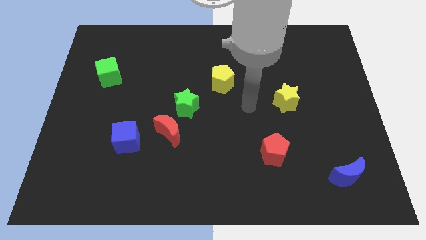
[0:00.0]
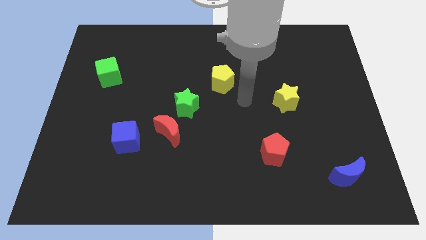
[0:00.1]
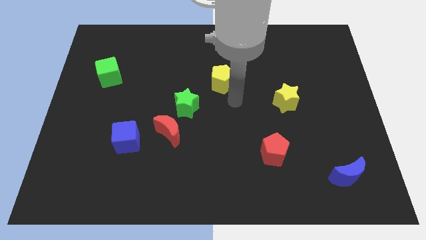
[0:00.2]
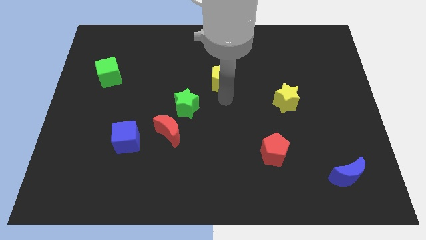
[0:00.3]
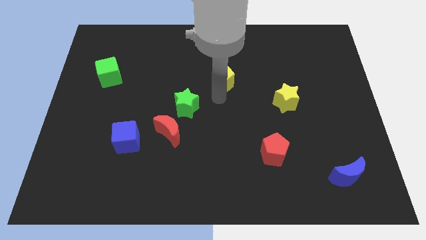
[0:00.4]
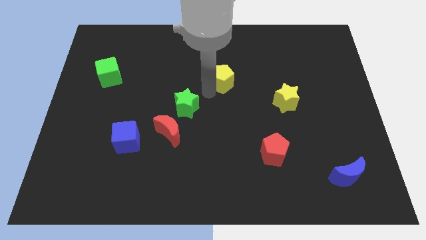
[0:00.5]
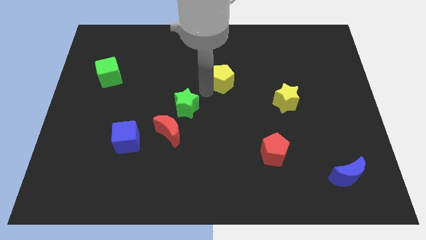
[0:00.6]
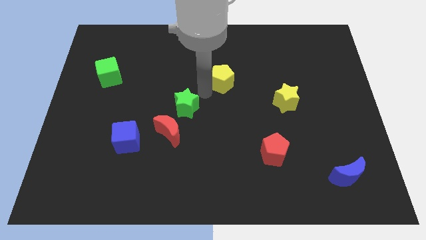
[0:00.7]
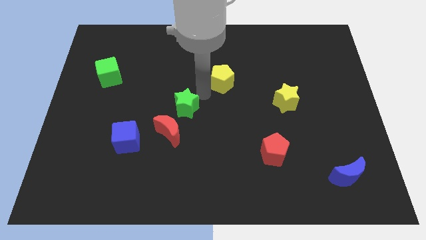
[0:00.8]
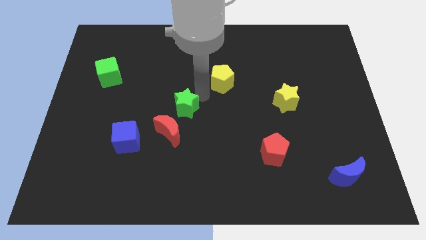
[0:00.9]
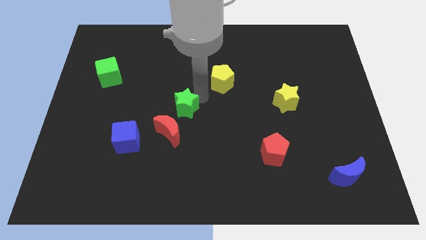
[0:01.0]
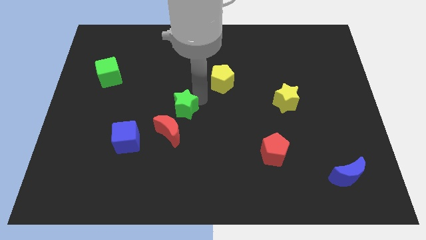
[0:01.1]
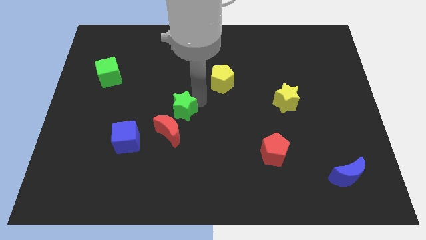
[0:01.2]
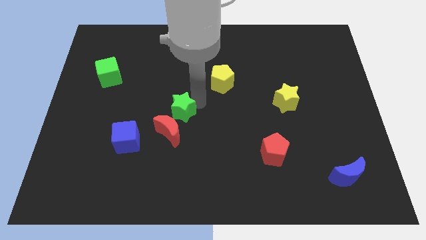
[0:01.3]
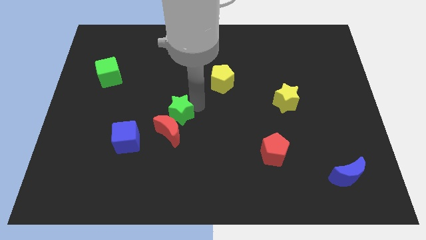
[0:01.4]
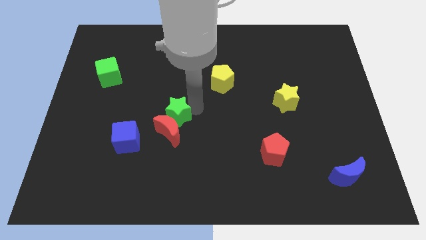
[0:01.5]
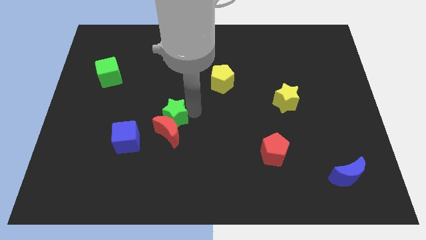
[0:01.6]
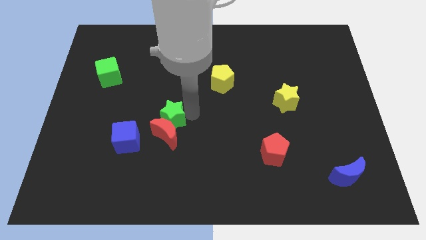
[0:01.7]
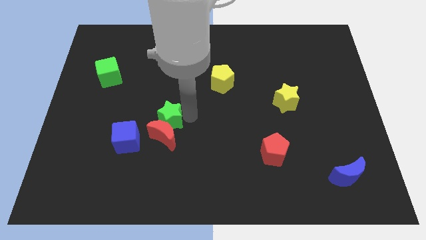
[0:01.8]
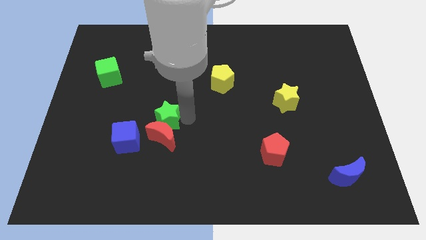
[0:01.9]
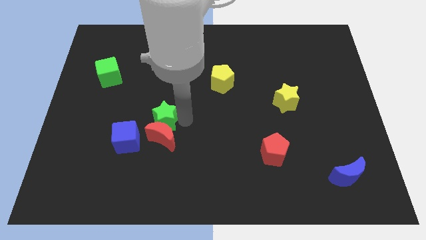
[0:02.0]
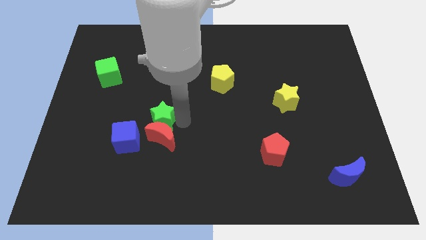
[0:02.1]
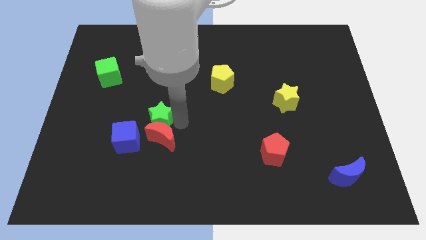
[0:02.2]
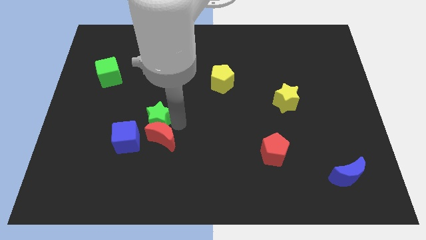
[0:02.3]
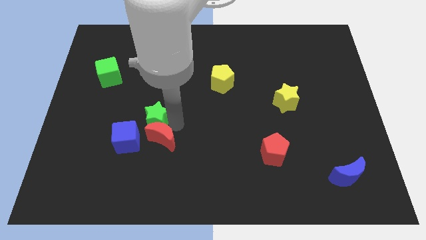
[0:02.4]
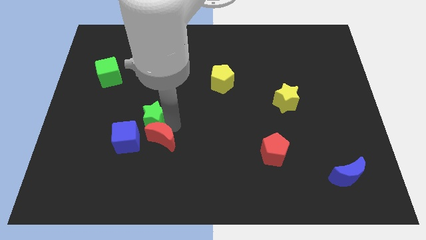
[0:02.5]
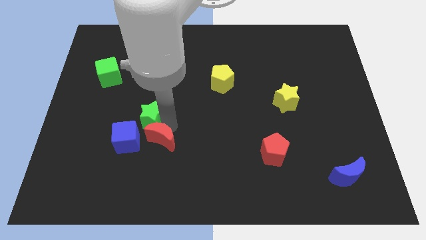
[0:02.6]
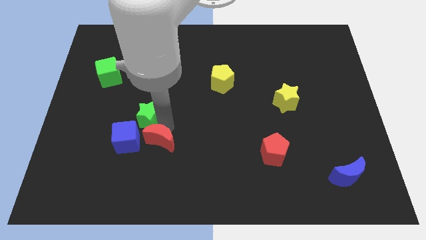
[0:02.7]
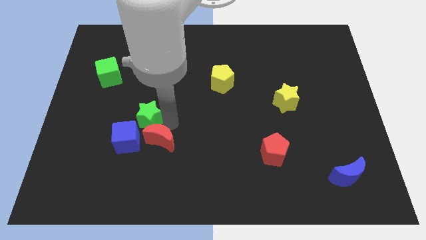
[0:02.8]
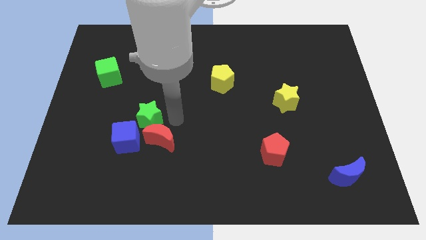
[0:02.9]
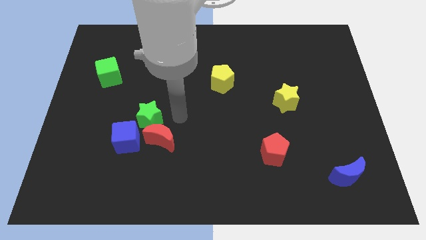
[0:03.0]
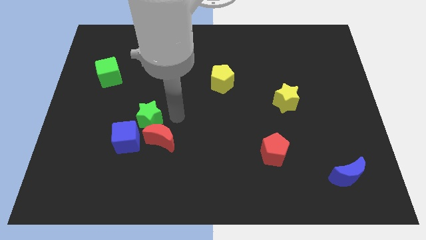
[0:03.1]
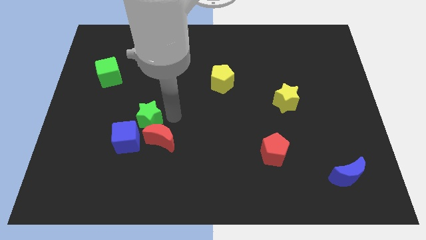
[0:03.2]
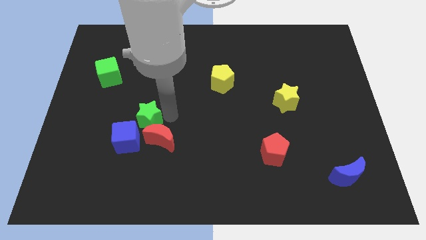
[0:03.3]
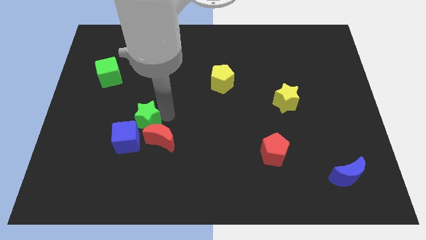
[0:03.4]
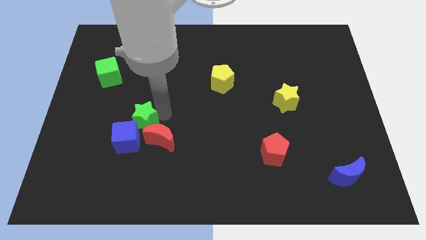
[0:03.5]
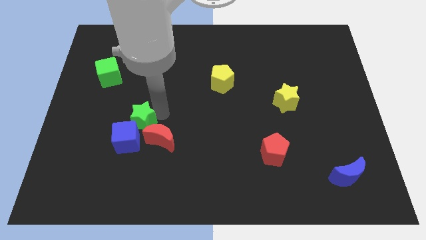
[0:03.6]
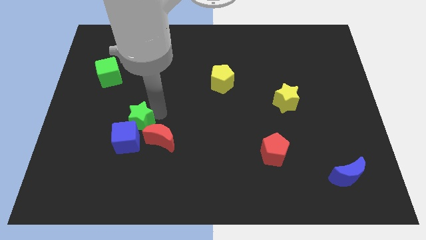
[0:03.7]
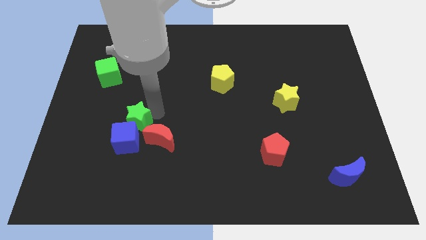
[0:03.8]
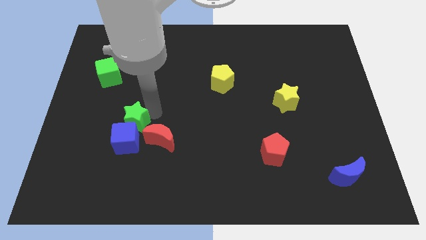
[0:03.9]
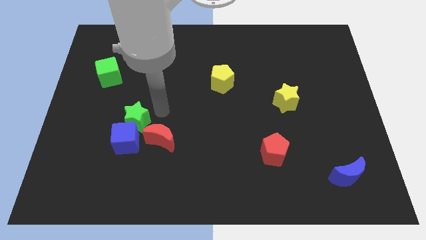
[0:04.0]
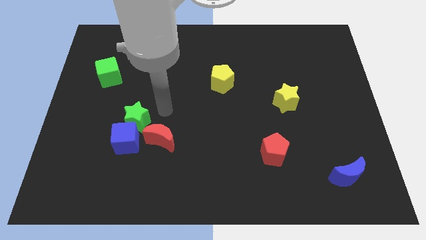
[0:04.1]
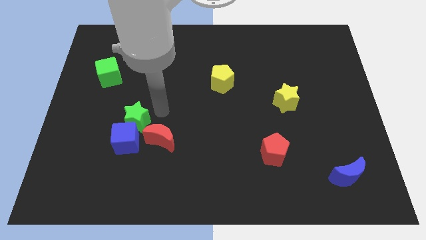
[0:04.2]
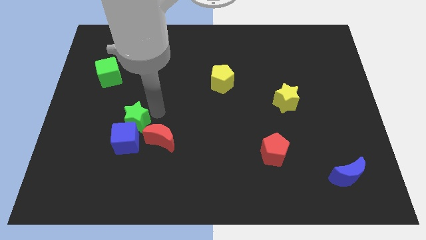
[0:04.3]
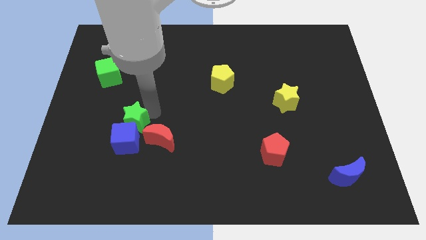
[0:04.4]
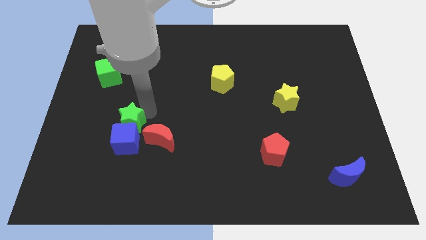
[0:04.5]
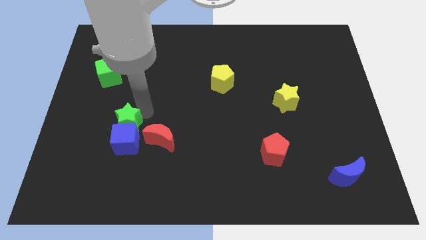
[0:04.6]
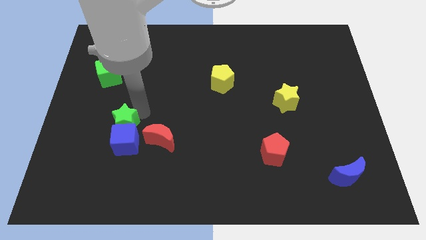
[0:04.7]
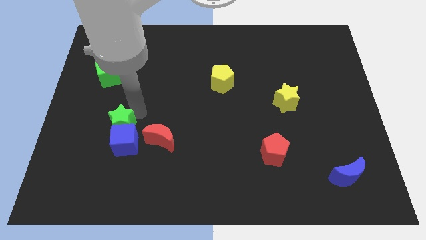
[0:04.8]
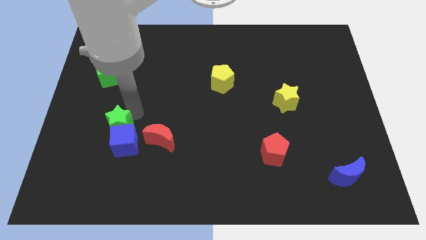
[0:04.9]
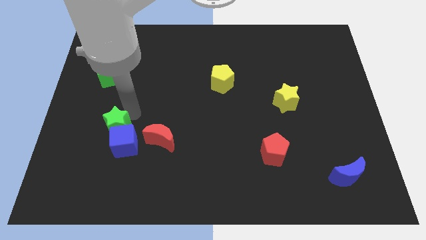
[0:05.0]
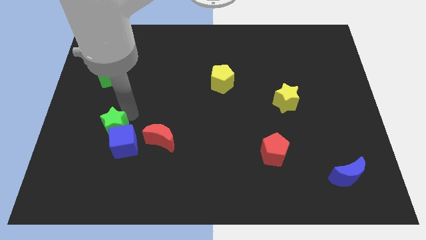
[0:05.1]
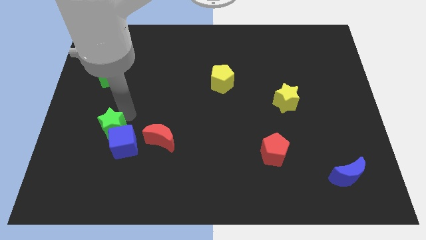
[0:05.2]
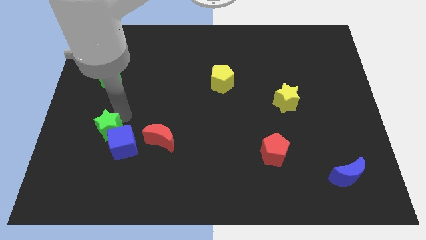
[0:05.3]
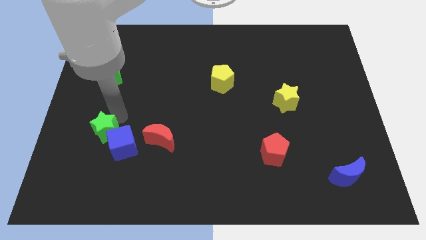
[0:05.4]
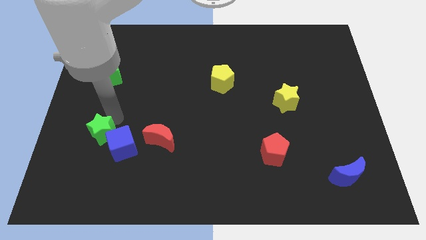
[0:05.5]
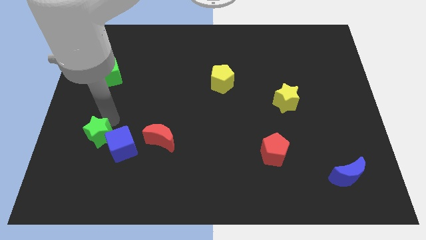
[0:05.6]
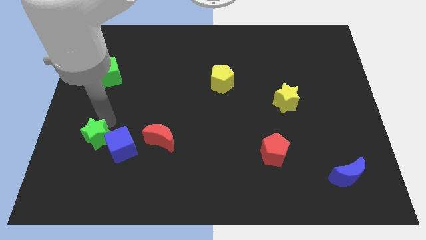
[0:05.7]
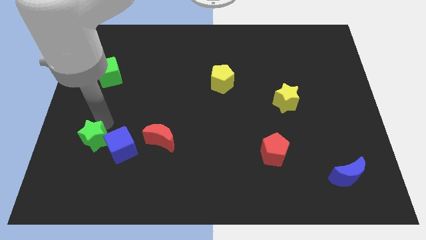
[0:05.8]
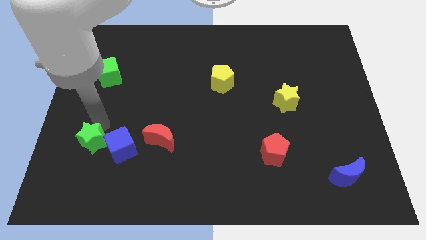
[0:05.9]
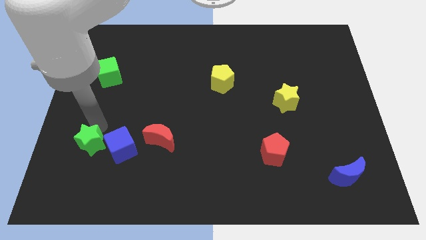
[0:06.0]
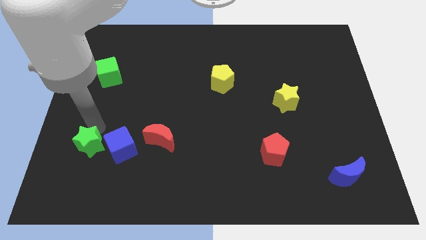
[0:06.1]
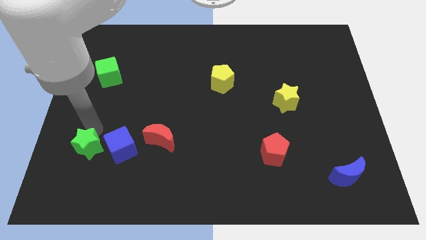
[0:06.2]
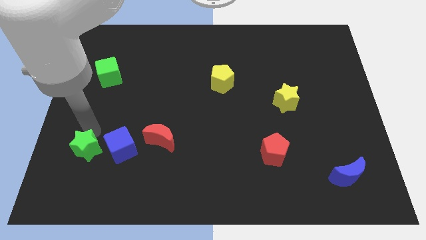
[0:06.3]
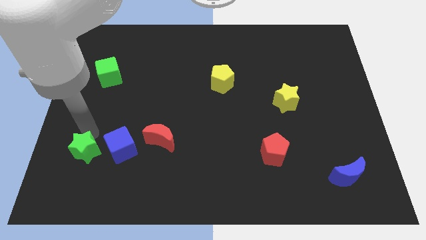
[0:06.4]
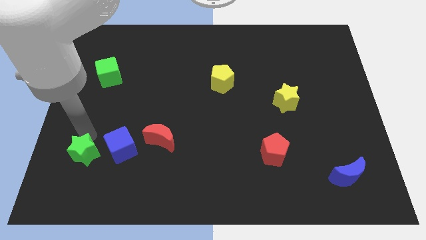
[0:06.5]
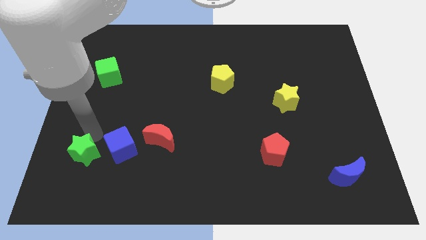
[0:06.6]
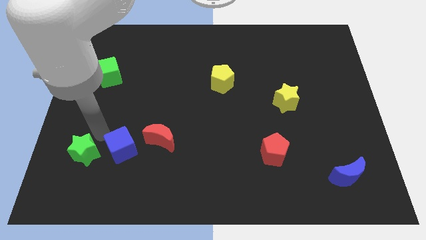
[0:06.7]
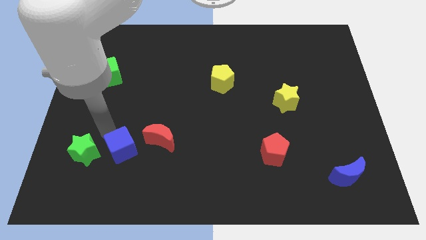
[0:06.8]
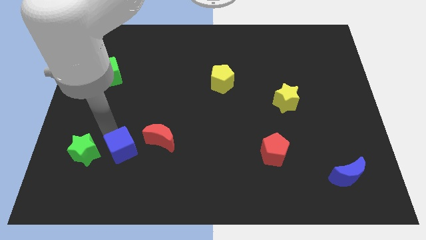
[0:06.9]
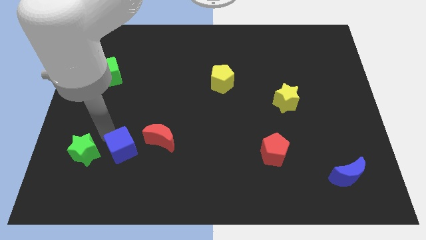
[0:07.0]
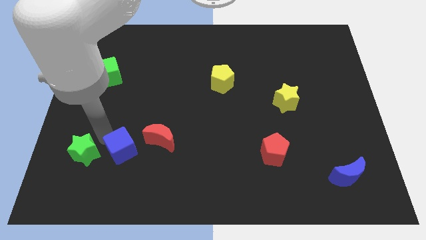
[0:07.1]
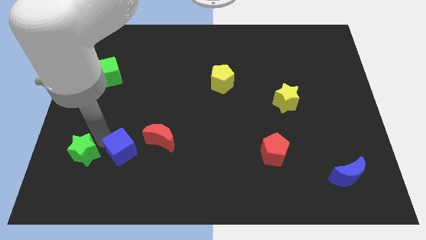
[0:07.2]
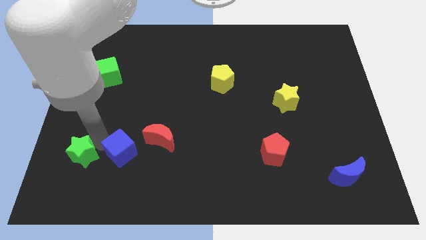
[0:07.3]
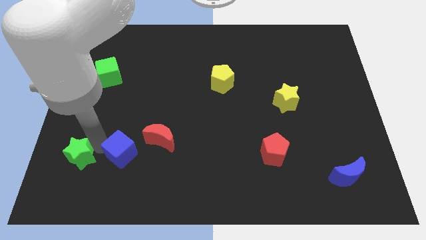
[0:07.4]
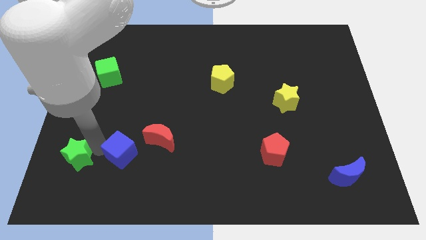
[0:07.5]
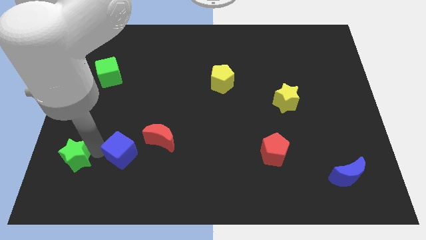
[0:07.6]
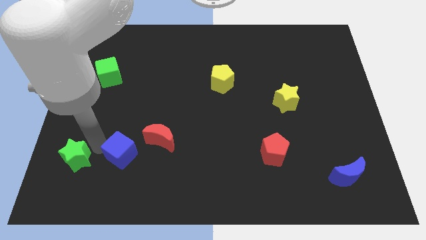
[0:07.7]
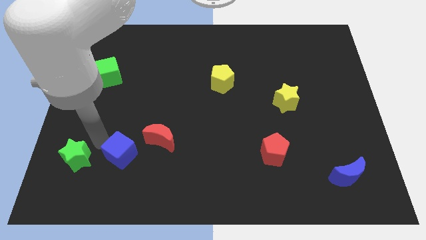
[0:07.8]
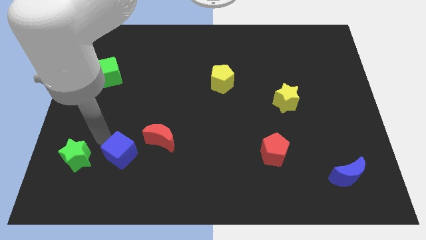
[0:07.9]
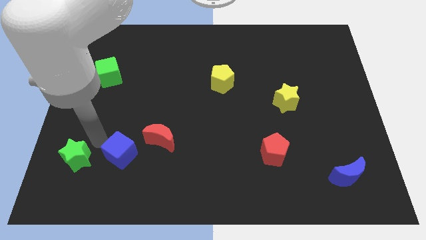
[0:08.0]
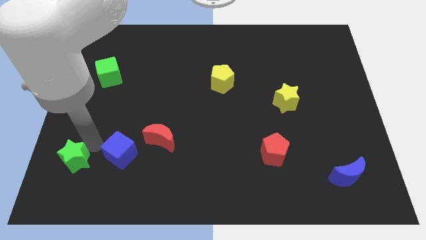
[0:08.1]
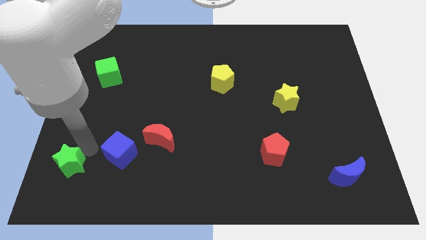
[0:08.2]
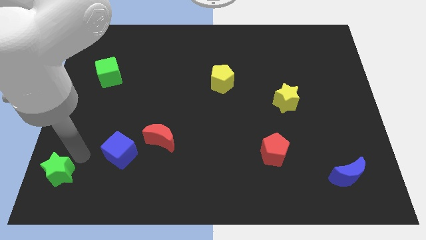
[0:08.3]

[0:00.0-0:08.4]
put the green star to the bottom left
